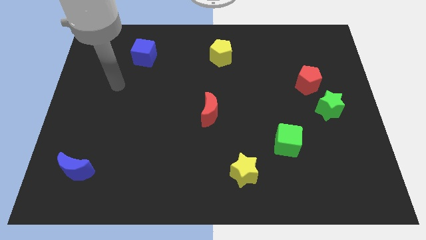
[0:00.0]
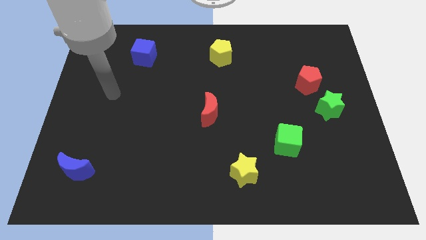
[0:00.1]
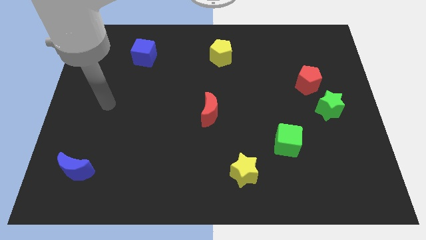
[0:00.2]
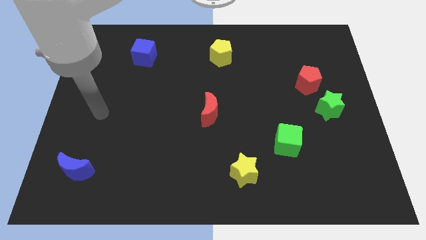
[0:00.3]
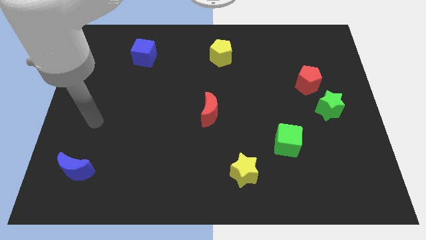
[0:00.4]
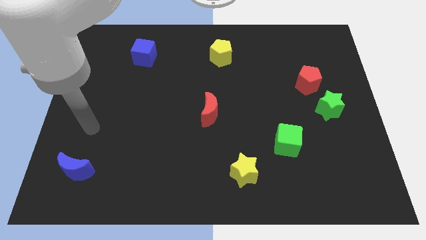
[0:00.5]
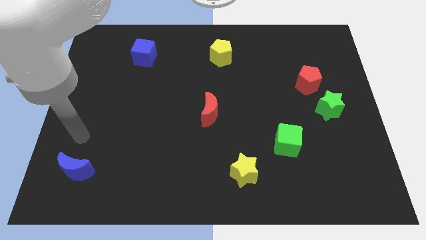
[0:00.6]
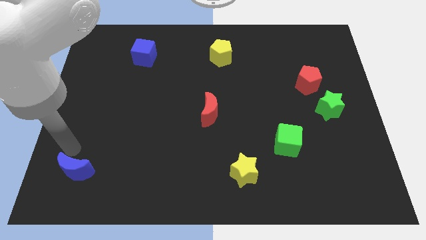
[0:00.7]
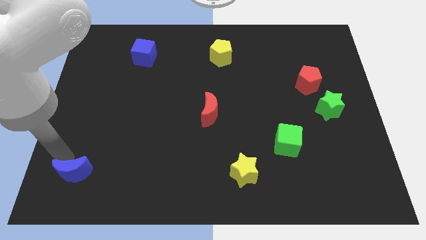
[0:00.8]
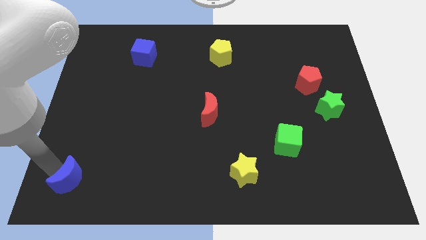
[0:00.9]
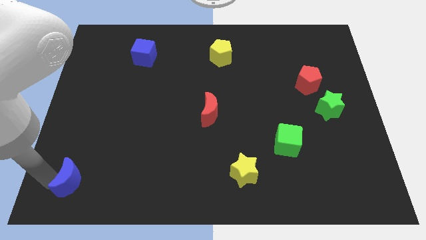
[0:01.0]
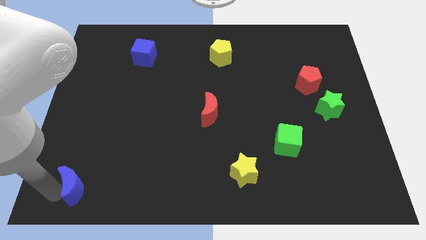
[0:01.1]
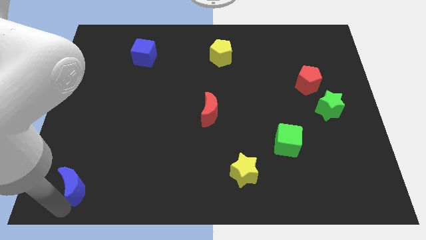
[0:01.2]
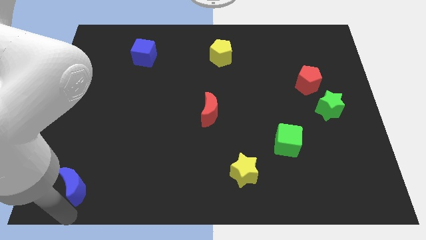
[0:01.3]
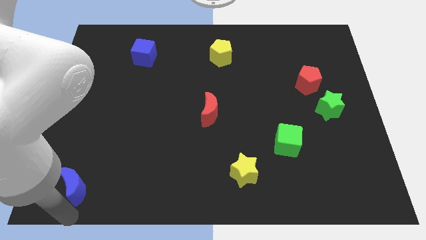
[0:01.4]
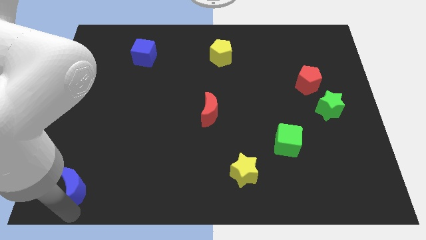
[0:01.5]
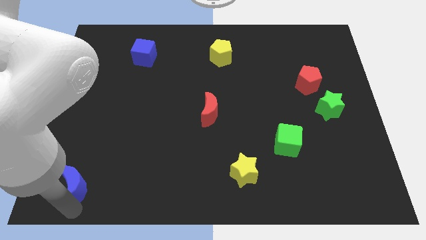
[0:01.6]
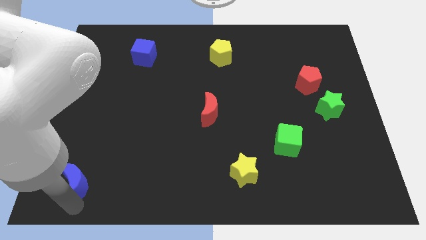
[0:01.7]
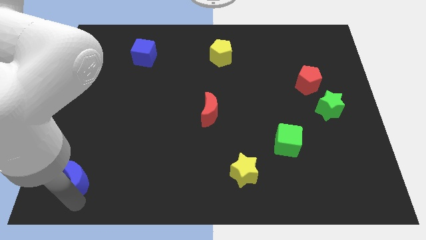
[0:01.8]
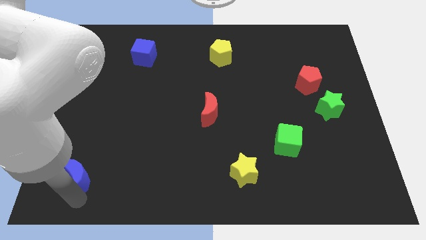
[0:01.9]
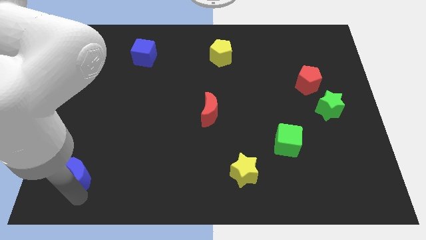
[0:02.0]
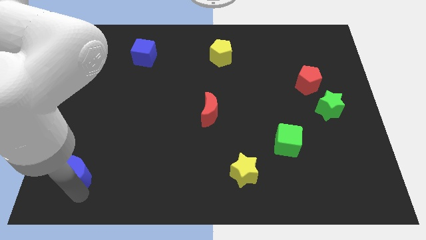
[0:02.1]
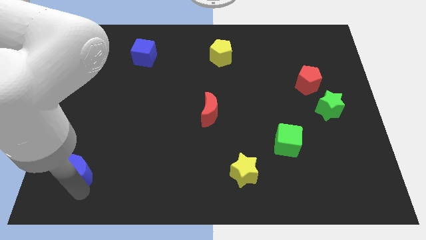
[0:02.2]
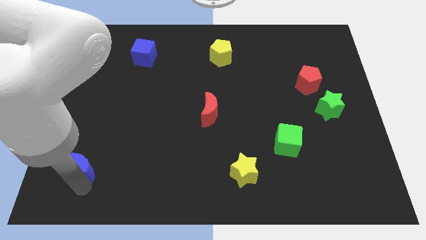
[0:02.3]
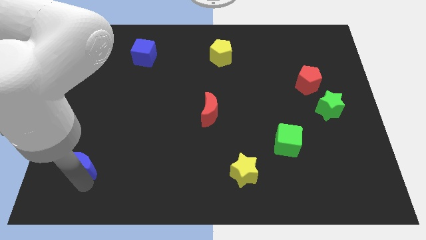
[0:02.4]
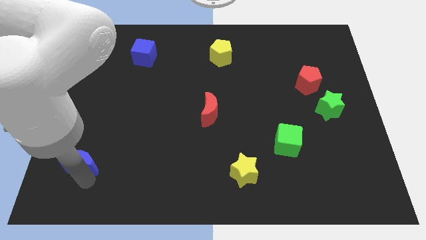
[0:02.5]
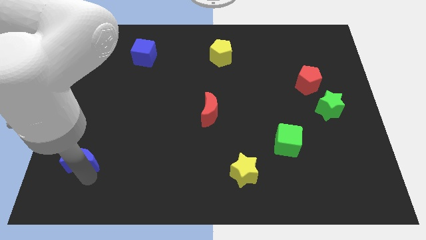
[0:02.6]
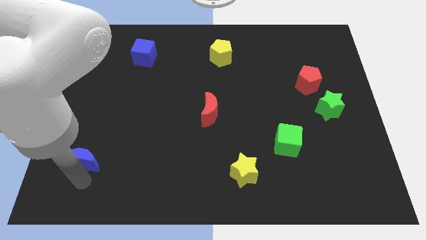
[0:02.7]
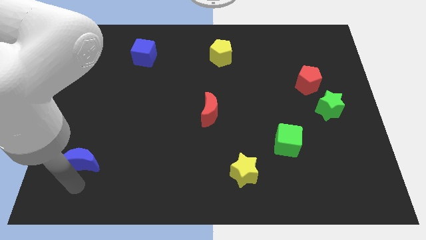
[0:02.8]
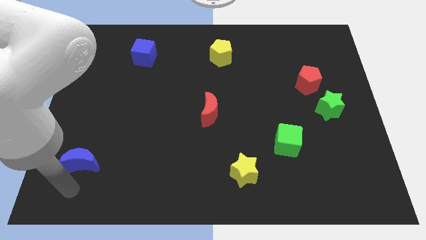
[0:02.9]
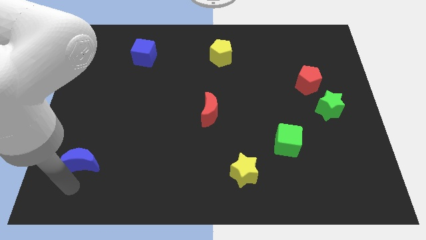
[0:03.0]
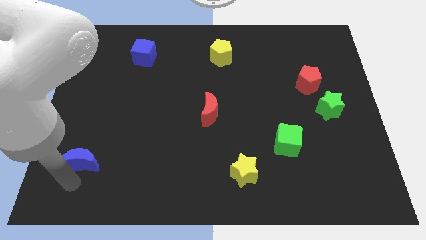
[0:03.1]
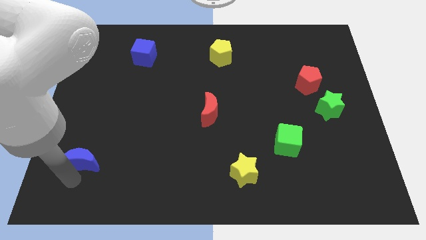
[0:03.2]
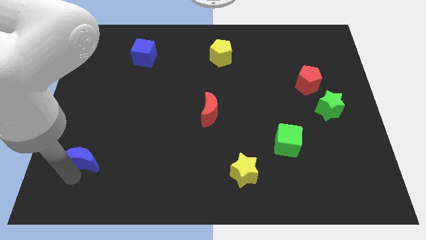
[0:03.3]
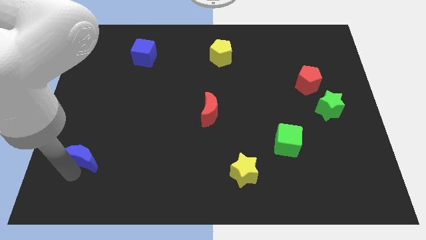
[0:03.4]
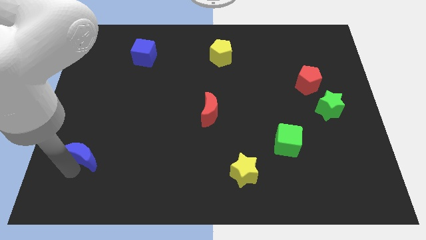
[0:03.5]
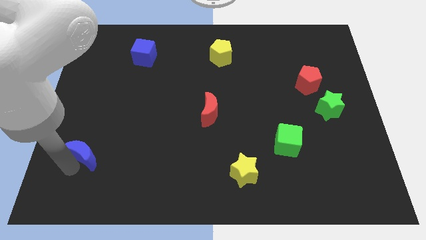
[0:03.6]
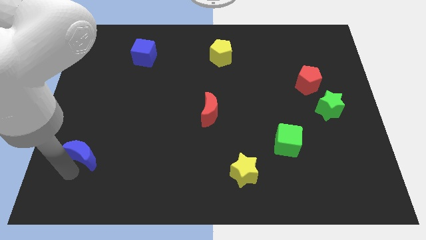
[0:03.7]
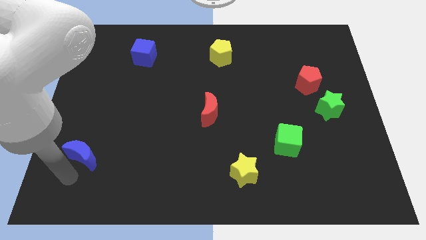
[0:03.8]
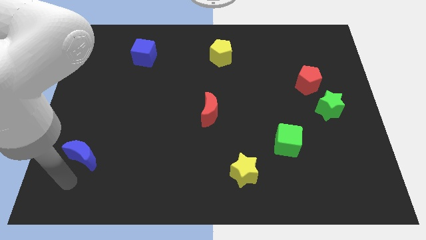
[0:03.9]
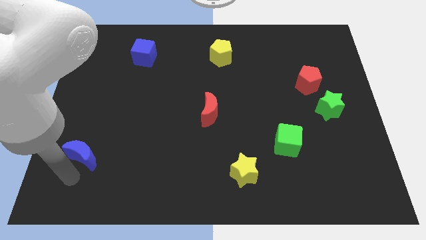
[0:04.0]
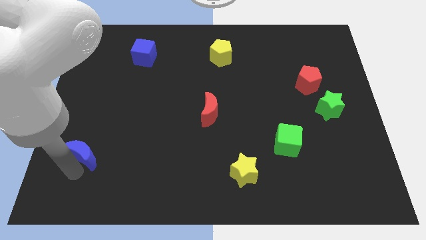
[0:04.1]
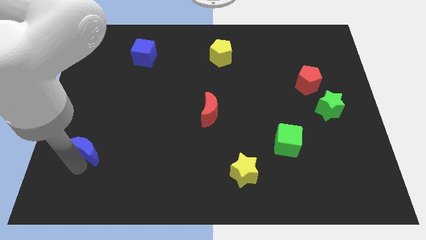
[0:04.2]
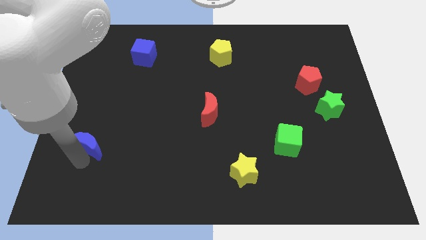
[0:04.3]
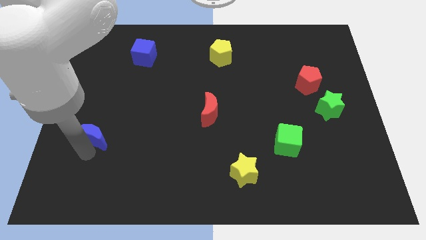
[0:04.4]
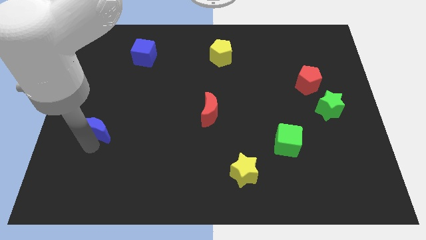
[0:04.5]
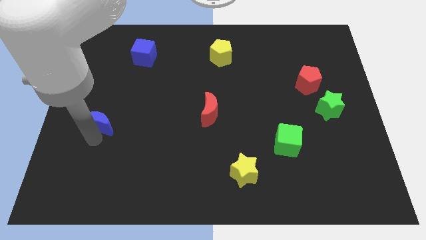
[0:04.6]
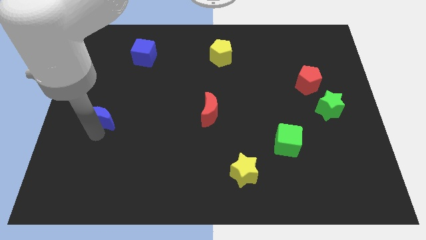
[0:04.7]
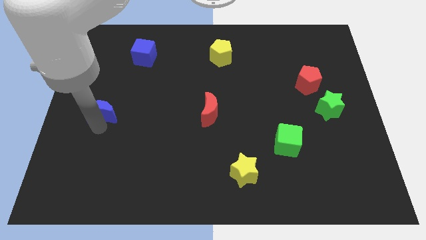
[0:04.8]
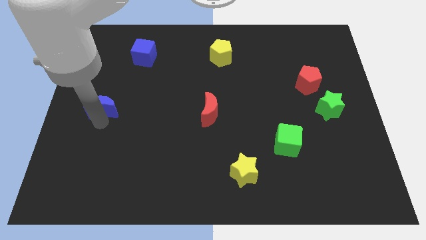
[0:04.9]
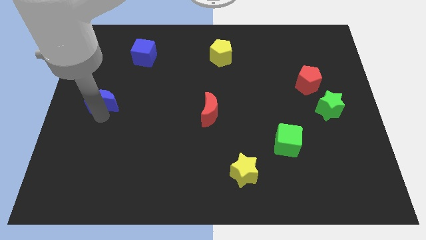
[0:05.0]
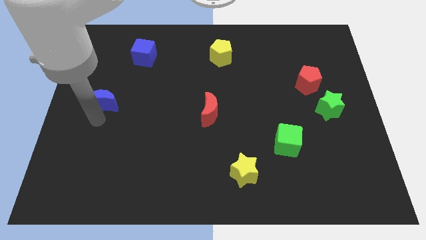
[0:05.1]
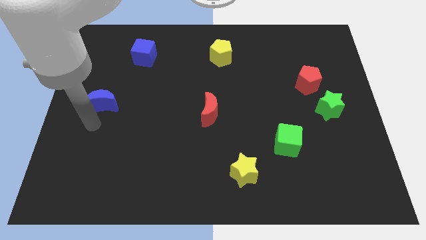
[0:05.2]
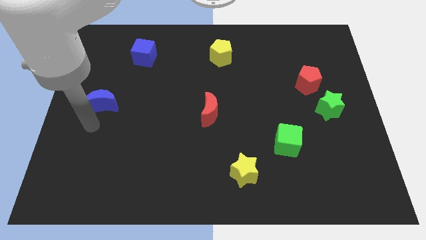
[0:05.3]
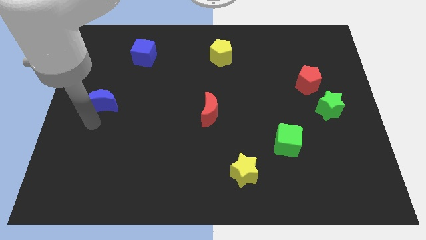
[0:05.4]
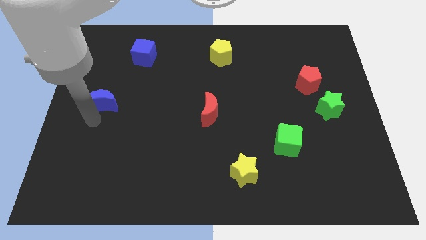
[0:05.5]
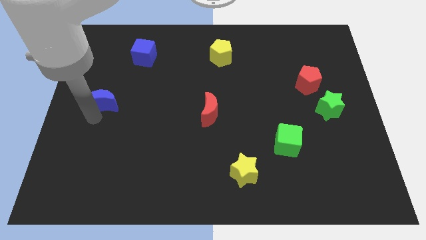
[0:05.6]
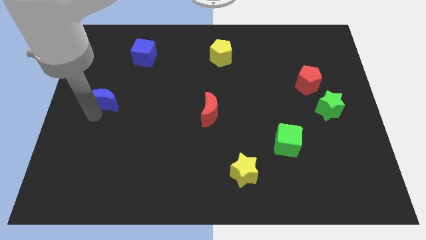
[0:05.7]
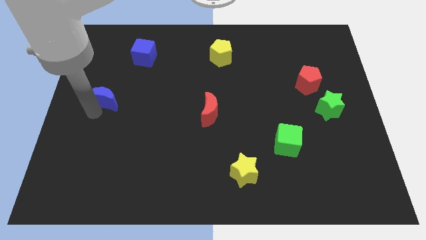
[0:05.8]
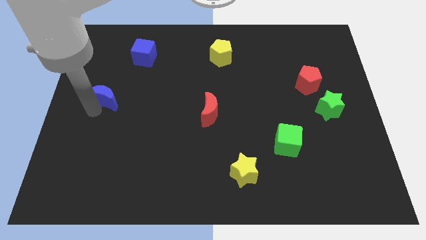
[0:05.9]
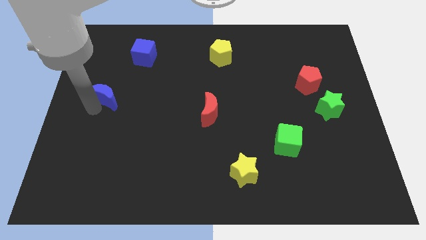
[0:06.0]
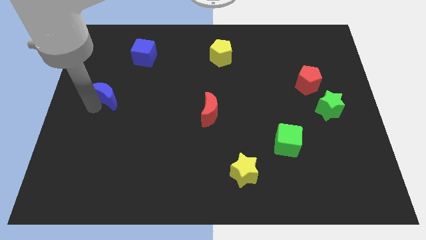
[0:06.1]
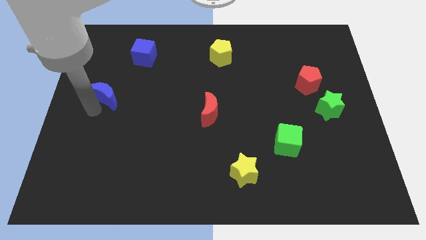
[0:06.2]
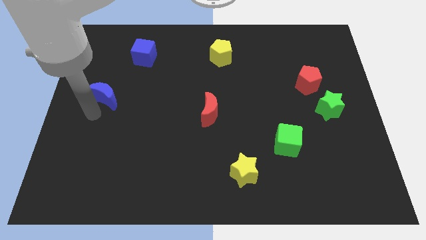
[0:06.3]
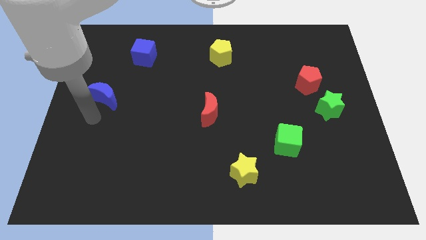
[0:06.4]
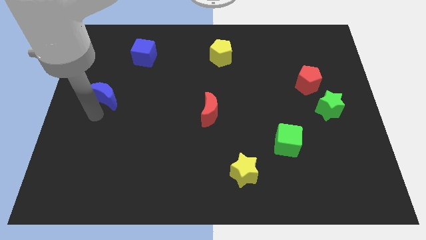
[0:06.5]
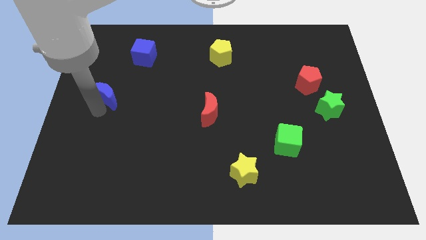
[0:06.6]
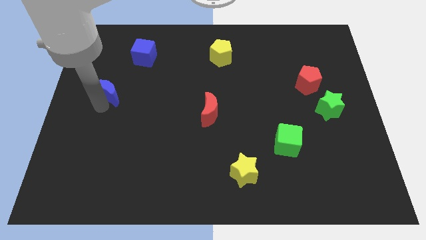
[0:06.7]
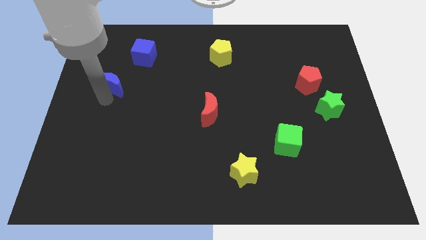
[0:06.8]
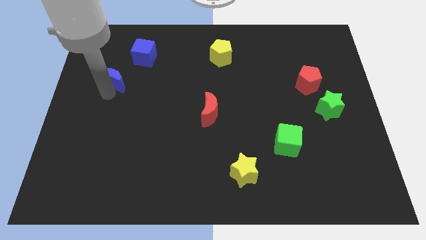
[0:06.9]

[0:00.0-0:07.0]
put the blue moon diagonally down and to the left of the blue cube
